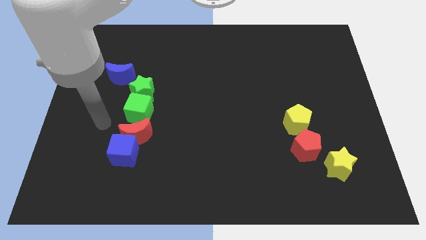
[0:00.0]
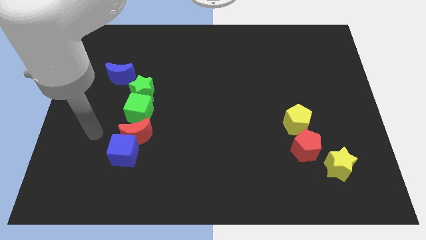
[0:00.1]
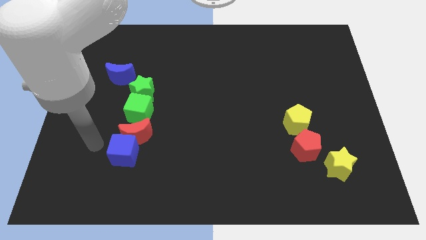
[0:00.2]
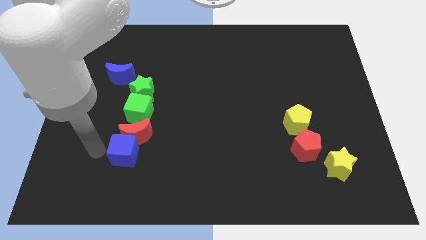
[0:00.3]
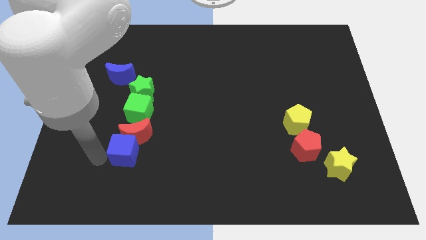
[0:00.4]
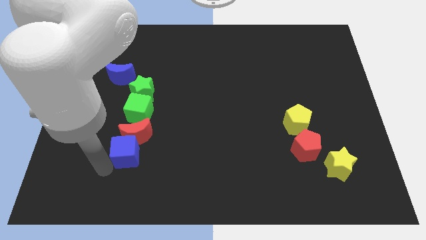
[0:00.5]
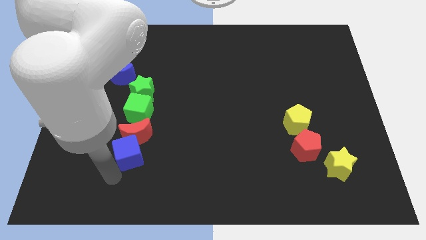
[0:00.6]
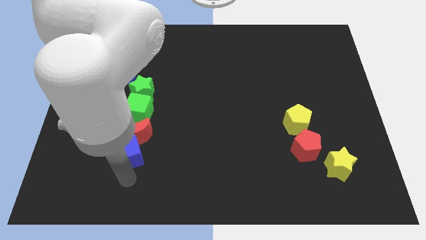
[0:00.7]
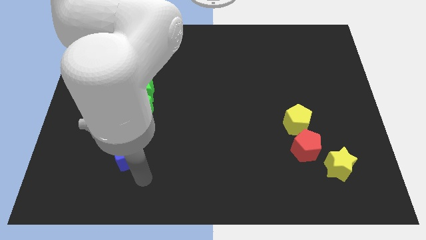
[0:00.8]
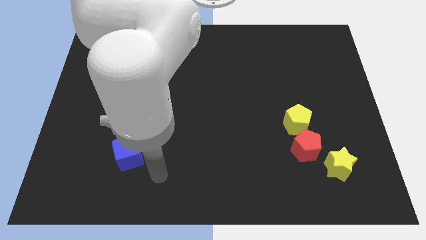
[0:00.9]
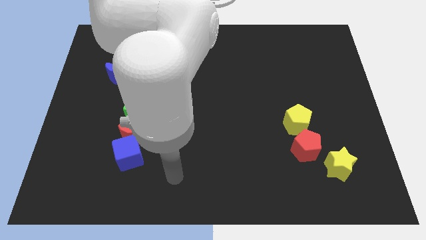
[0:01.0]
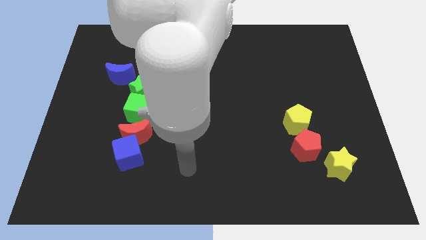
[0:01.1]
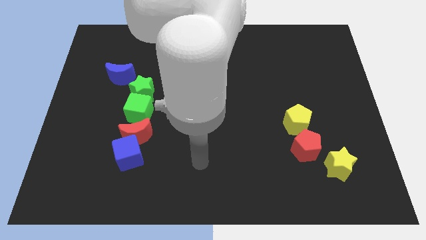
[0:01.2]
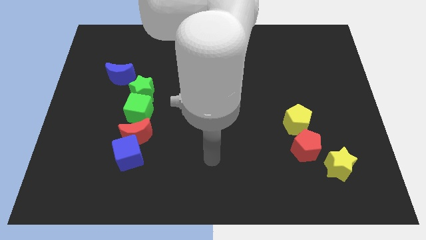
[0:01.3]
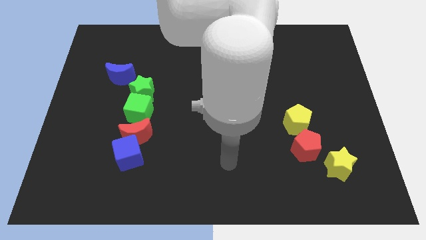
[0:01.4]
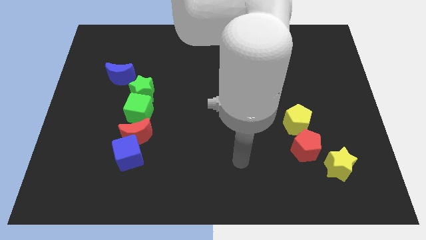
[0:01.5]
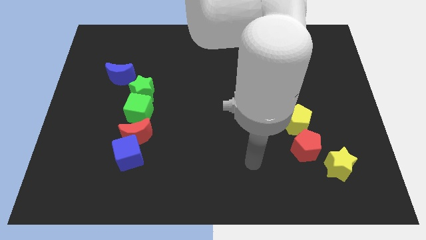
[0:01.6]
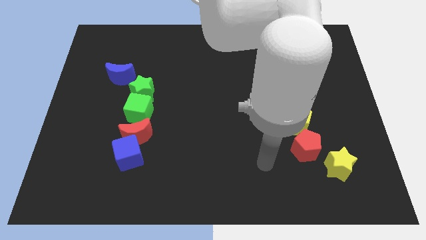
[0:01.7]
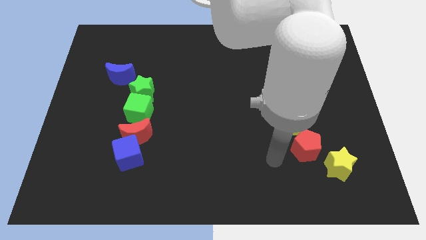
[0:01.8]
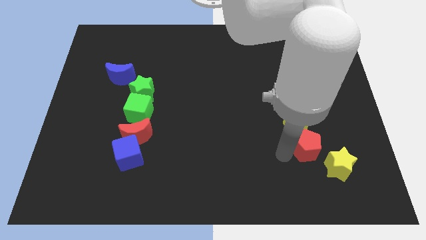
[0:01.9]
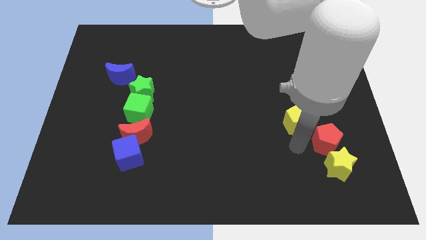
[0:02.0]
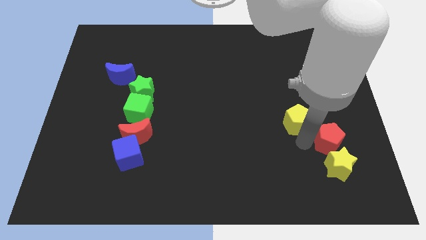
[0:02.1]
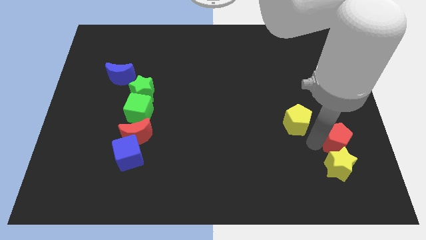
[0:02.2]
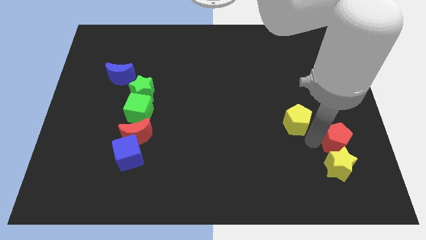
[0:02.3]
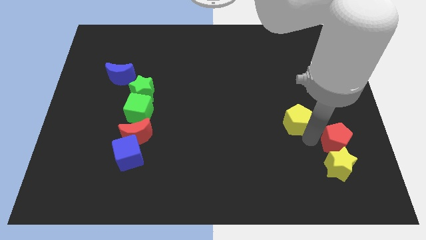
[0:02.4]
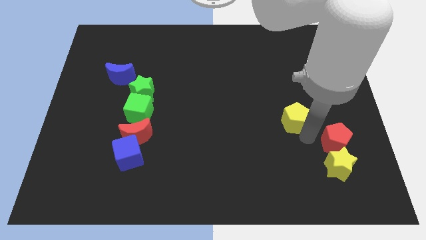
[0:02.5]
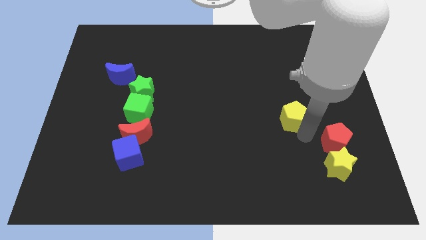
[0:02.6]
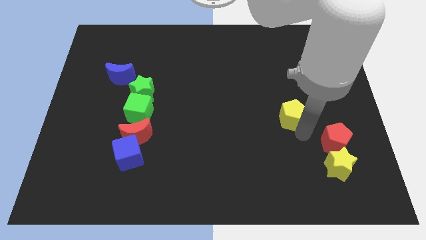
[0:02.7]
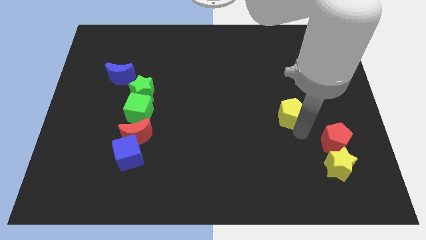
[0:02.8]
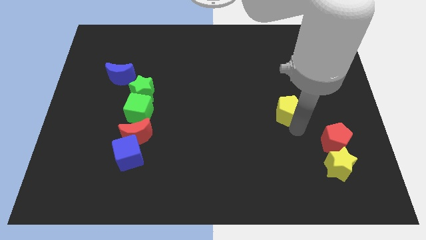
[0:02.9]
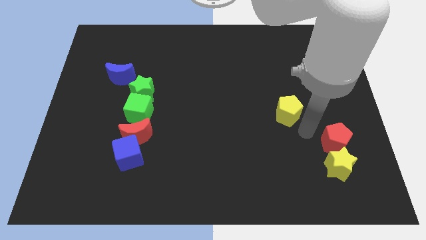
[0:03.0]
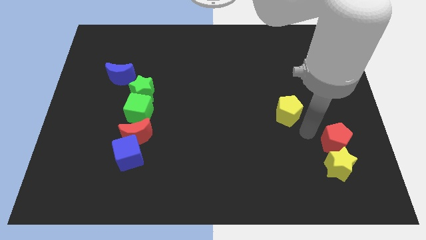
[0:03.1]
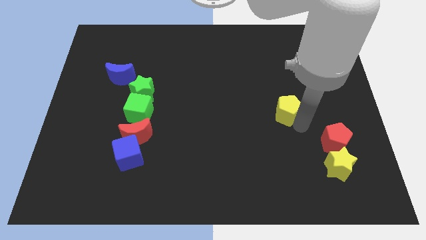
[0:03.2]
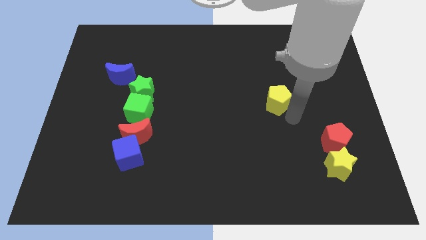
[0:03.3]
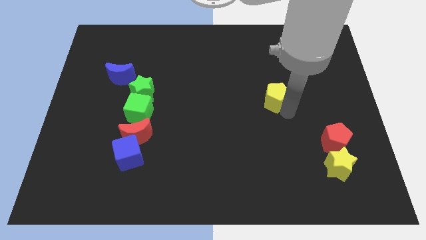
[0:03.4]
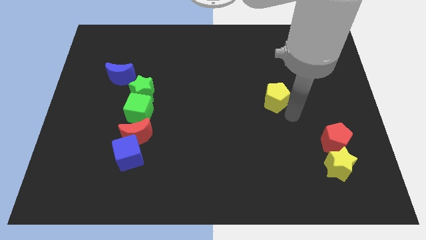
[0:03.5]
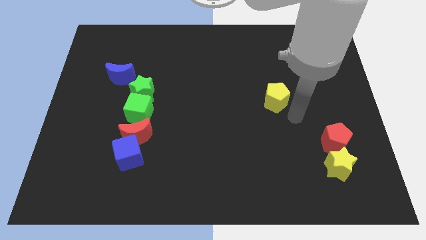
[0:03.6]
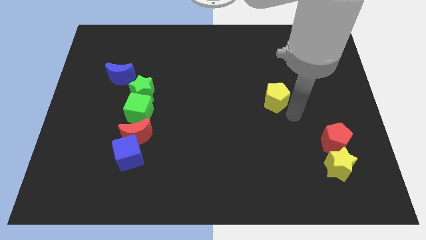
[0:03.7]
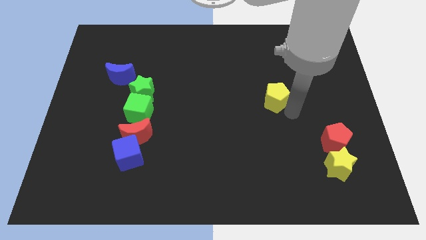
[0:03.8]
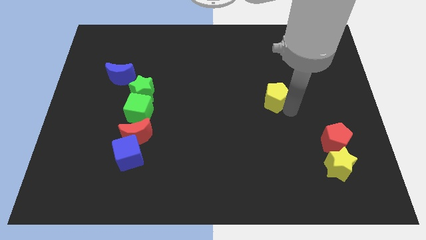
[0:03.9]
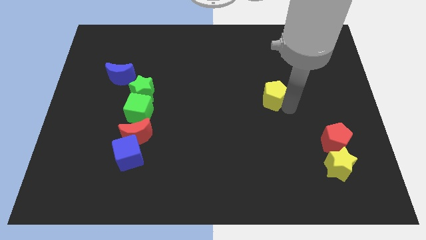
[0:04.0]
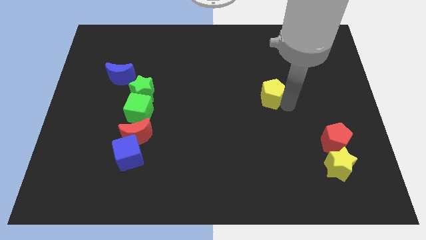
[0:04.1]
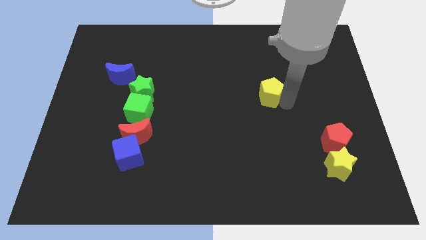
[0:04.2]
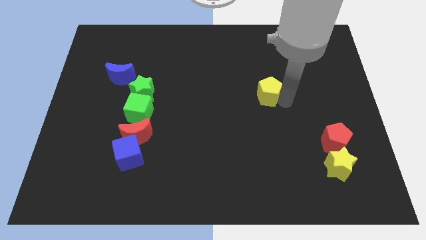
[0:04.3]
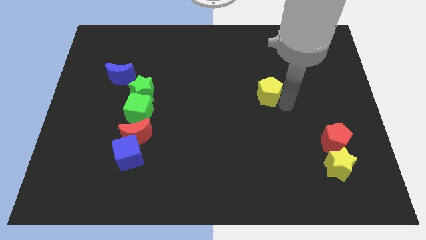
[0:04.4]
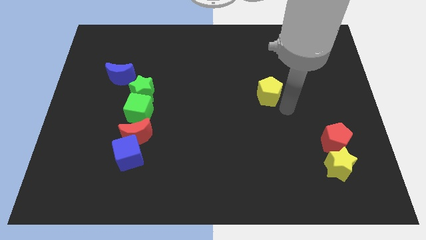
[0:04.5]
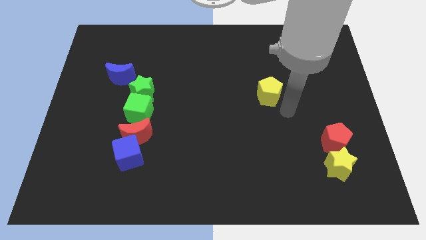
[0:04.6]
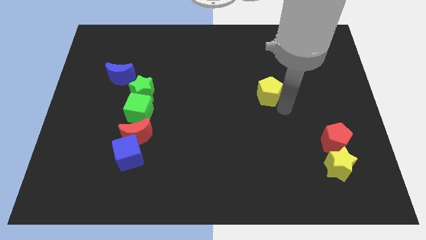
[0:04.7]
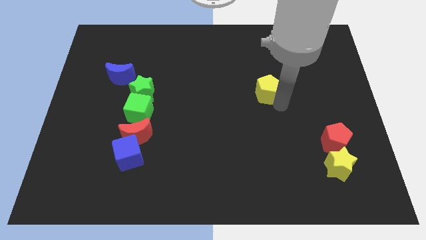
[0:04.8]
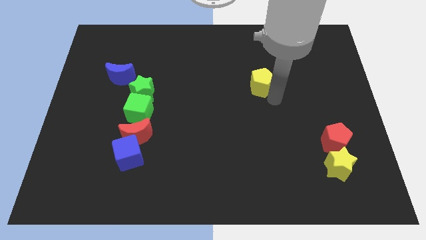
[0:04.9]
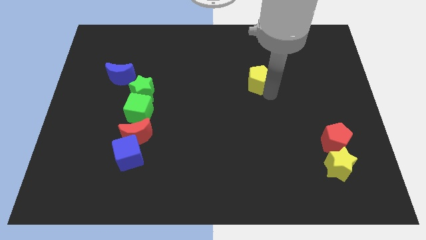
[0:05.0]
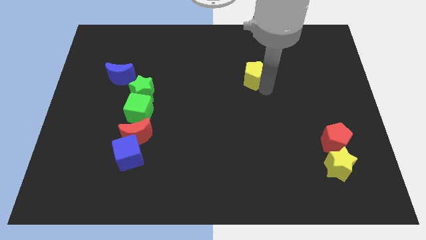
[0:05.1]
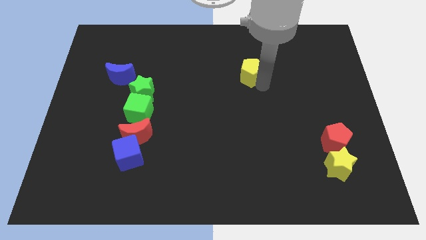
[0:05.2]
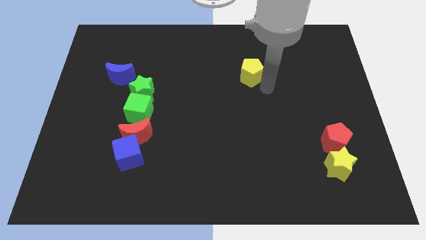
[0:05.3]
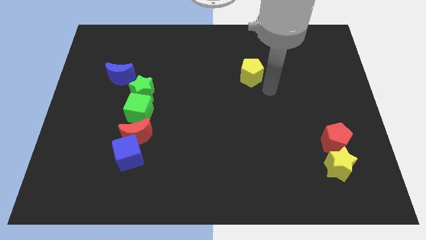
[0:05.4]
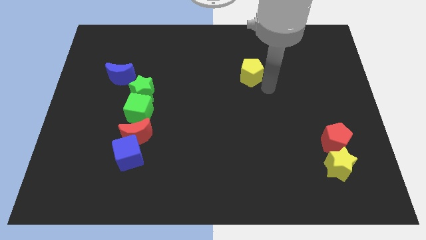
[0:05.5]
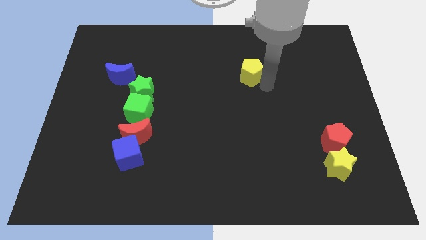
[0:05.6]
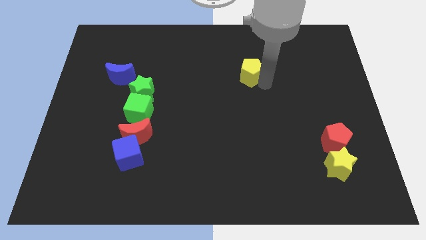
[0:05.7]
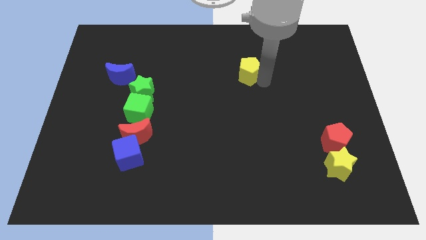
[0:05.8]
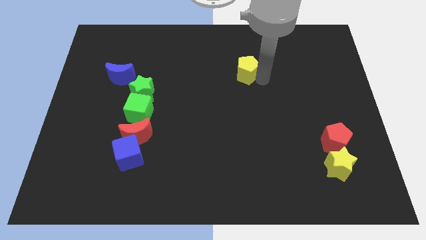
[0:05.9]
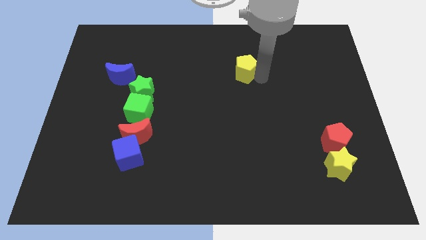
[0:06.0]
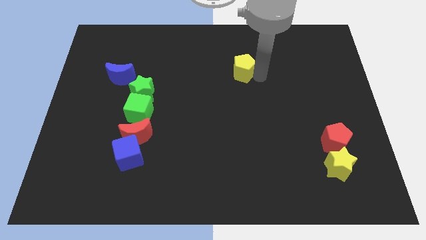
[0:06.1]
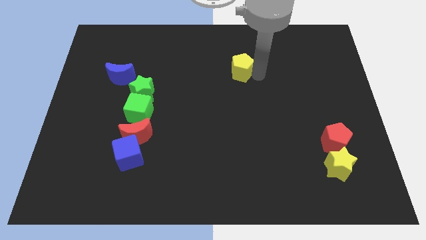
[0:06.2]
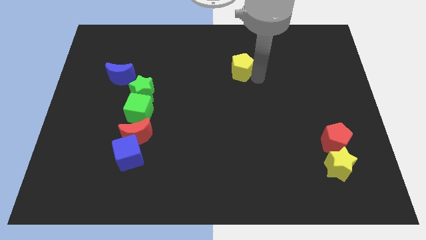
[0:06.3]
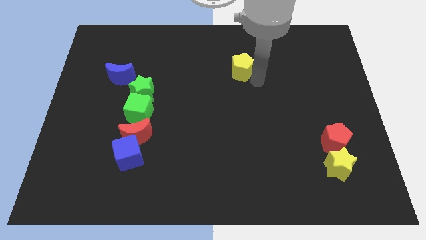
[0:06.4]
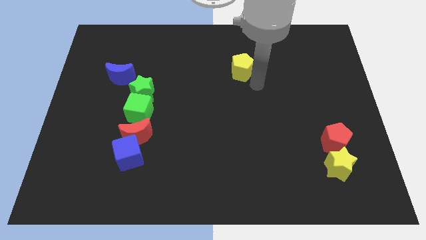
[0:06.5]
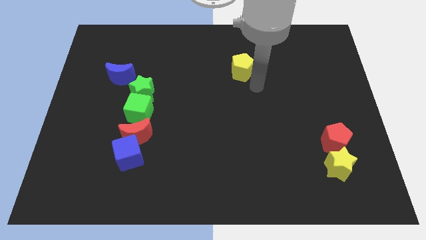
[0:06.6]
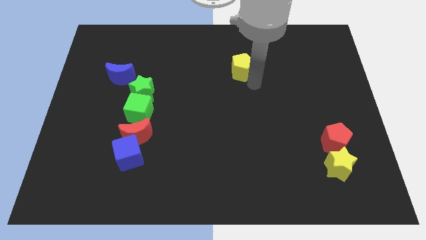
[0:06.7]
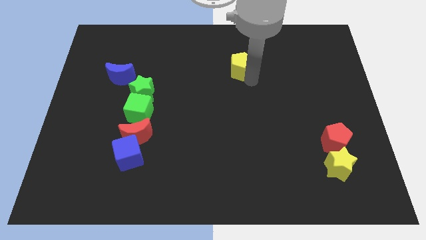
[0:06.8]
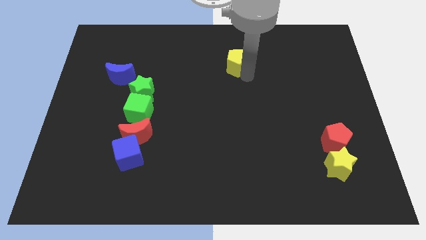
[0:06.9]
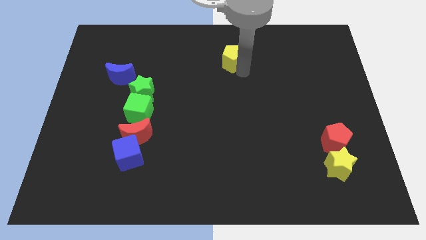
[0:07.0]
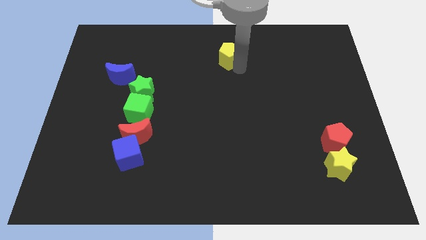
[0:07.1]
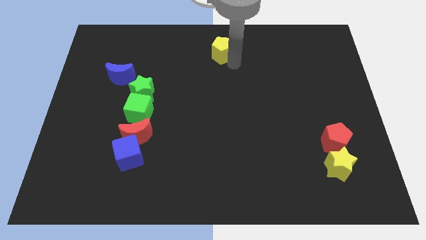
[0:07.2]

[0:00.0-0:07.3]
put the yellow pentagon to the top
